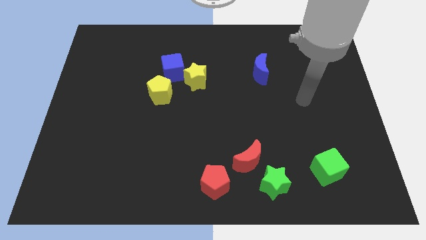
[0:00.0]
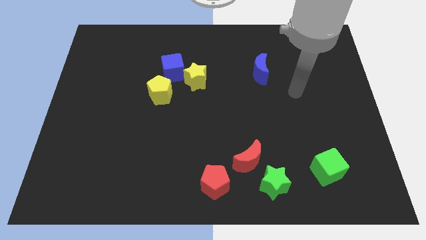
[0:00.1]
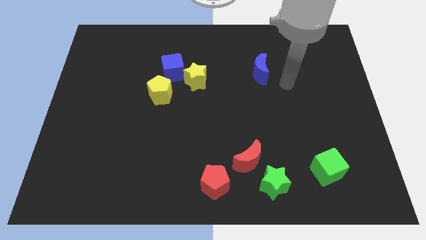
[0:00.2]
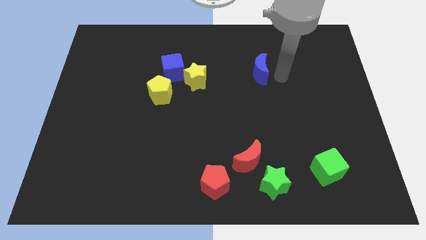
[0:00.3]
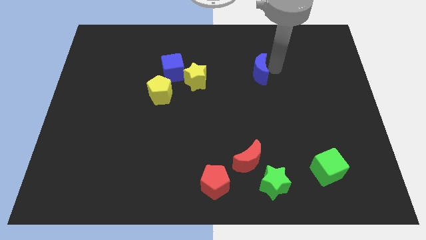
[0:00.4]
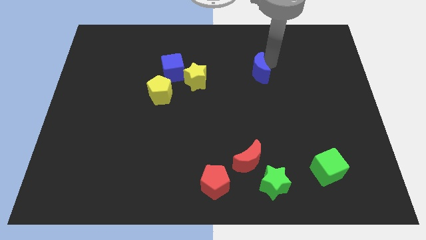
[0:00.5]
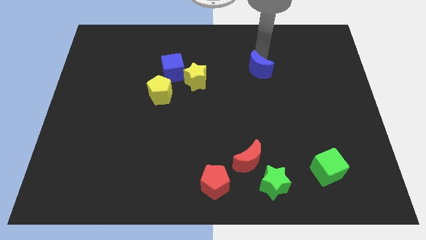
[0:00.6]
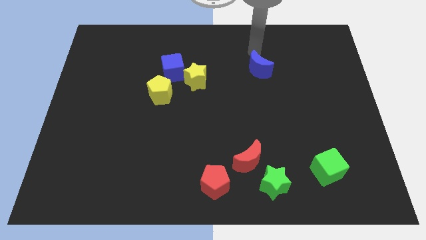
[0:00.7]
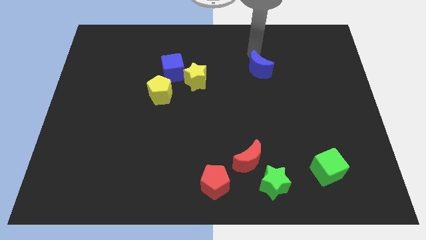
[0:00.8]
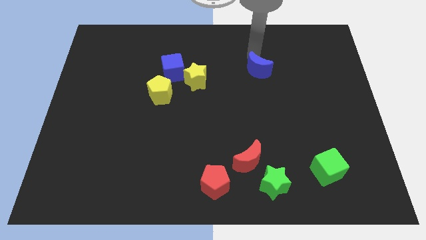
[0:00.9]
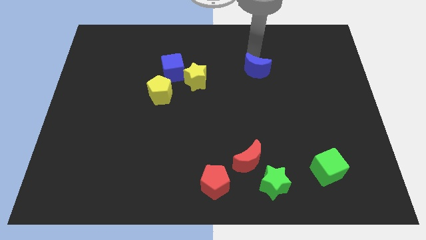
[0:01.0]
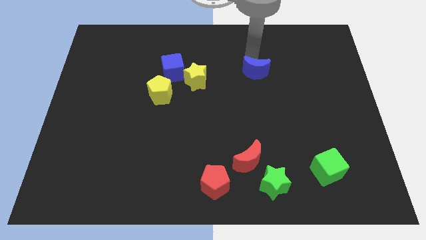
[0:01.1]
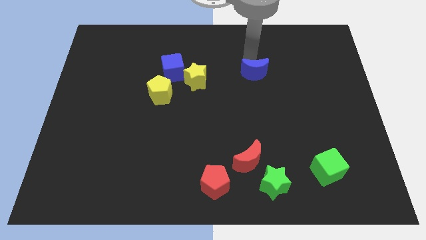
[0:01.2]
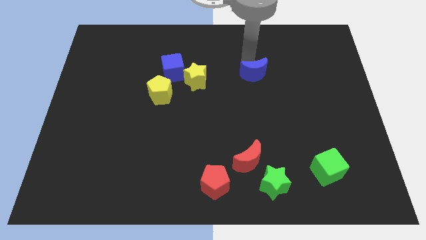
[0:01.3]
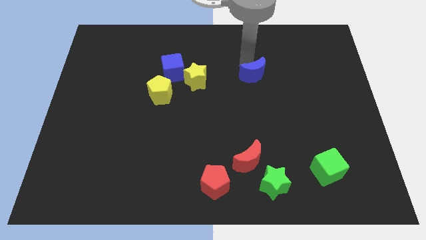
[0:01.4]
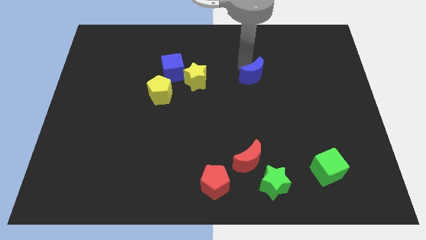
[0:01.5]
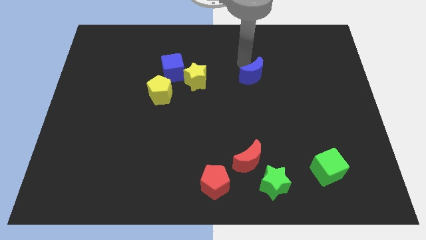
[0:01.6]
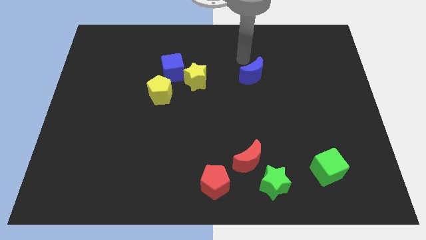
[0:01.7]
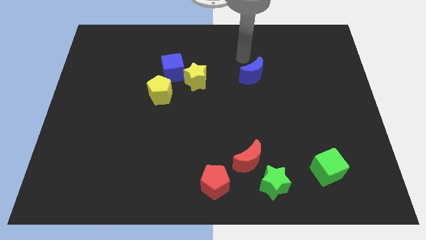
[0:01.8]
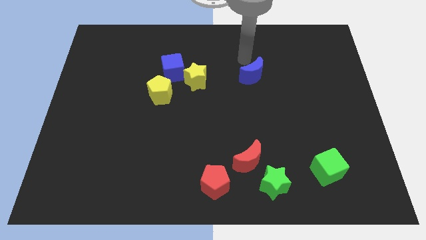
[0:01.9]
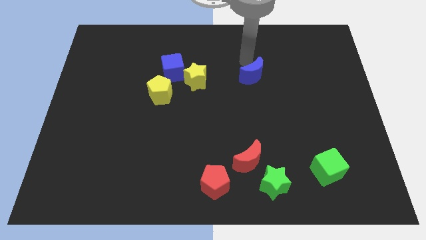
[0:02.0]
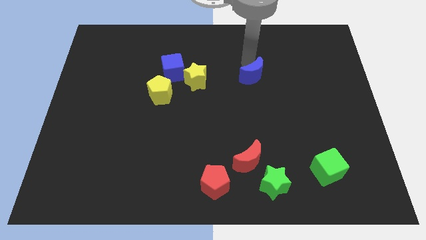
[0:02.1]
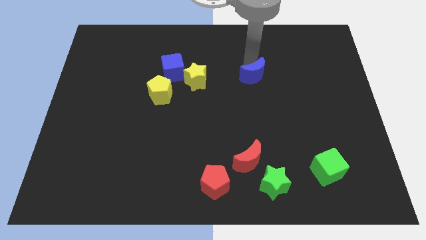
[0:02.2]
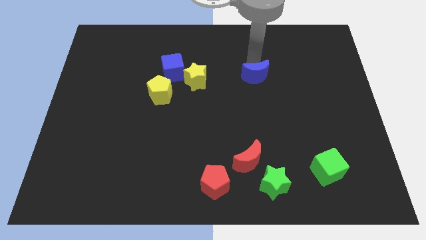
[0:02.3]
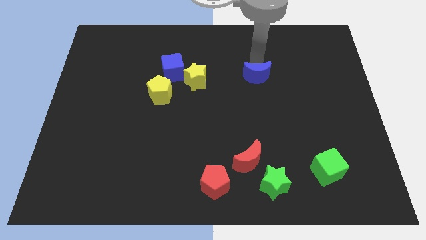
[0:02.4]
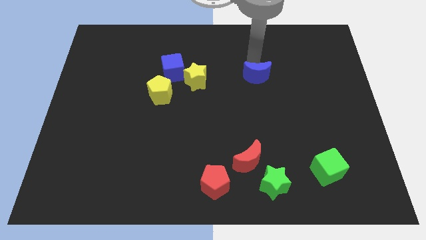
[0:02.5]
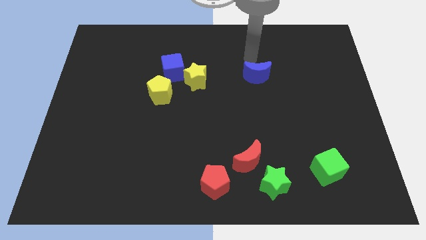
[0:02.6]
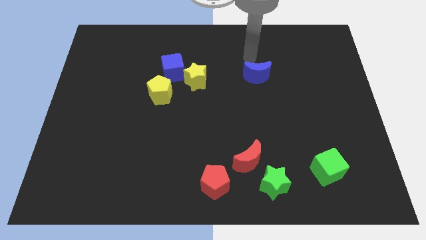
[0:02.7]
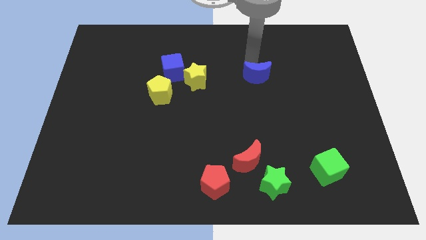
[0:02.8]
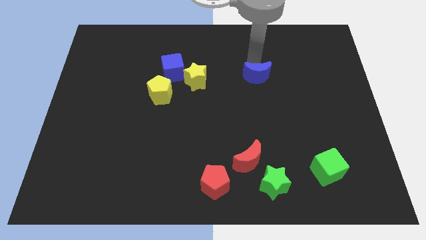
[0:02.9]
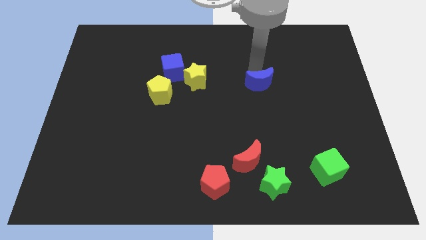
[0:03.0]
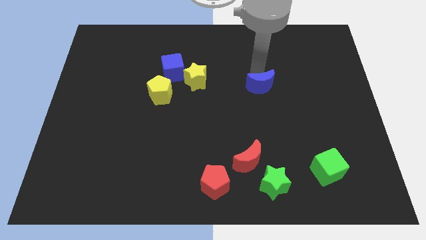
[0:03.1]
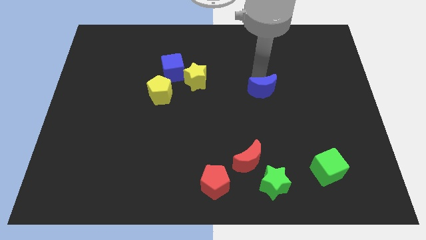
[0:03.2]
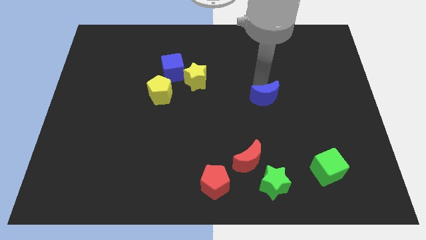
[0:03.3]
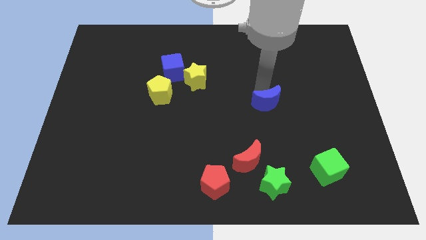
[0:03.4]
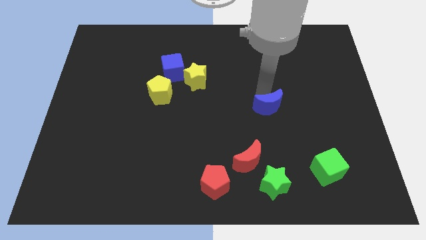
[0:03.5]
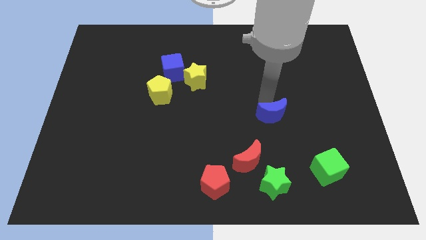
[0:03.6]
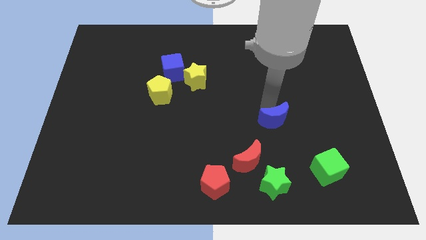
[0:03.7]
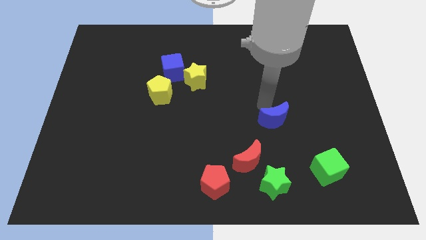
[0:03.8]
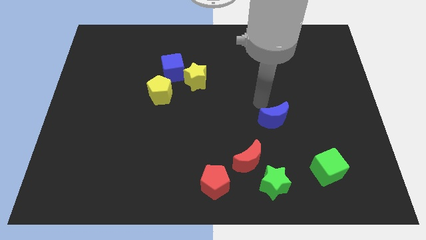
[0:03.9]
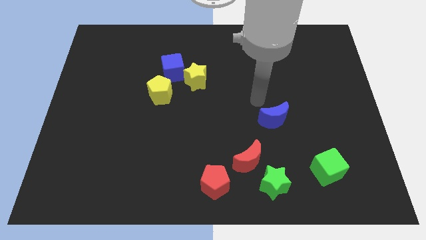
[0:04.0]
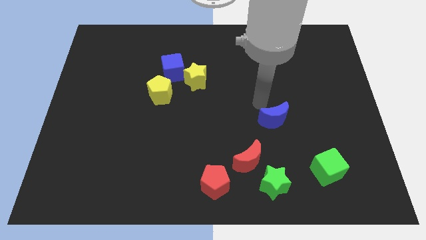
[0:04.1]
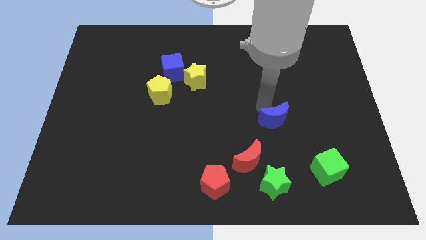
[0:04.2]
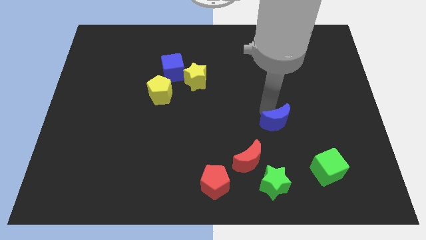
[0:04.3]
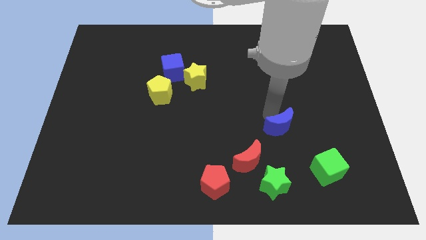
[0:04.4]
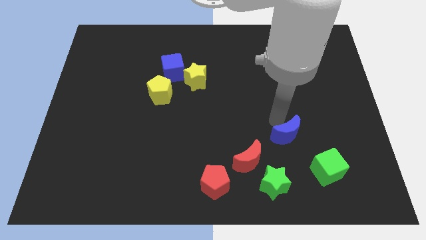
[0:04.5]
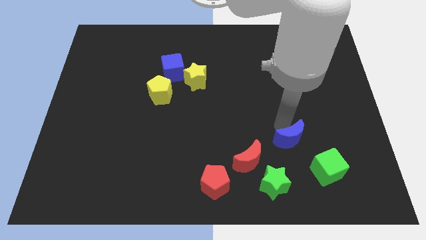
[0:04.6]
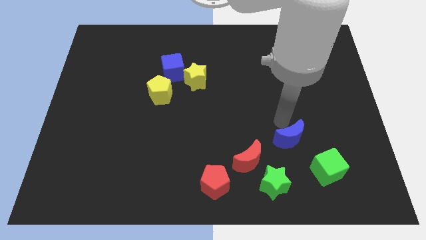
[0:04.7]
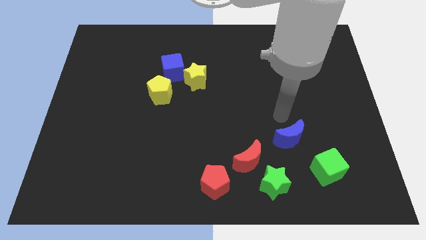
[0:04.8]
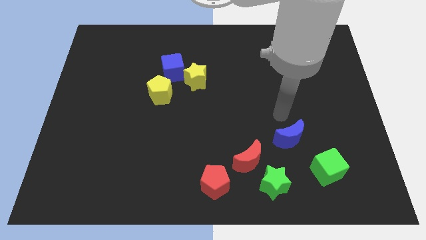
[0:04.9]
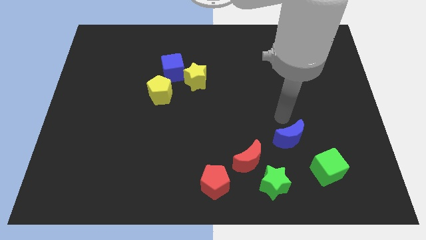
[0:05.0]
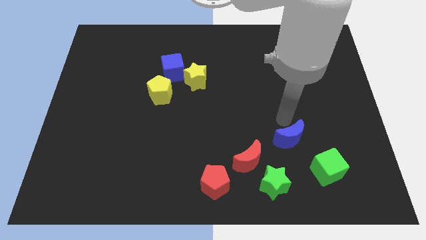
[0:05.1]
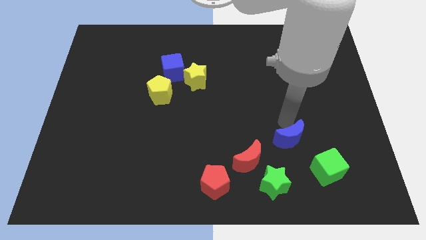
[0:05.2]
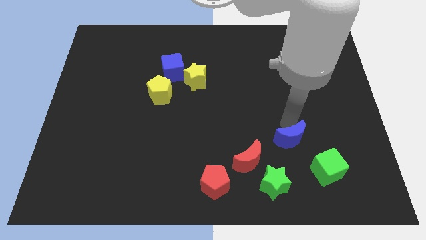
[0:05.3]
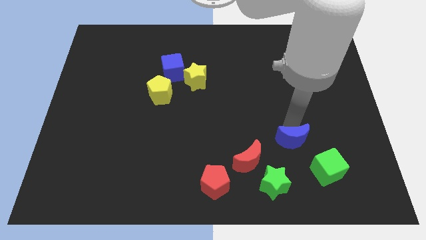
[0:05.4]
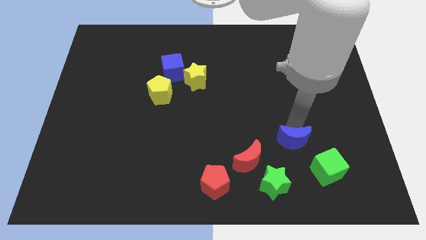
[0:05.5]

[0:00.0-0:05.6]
put the blue moon to the right side of the red moon

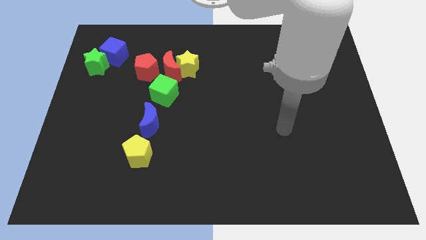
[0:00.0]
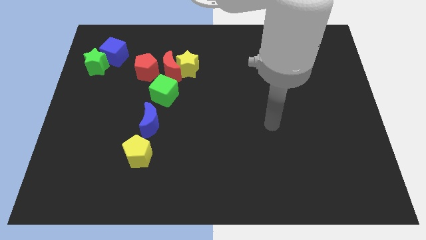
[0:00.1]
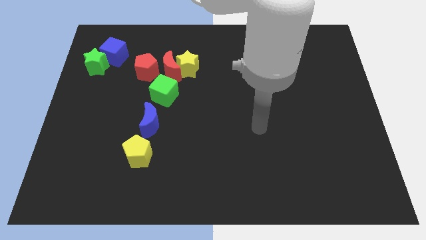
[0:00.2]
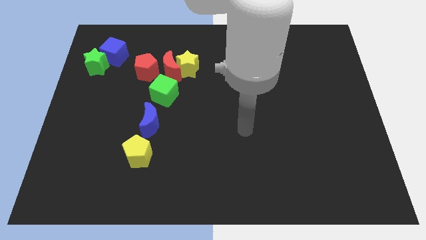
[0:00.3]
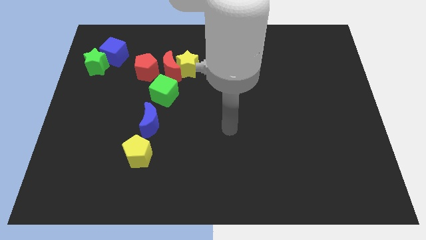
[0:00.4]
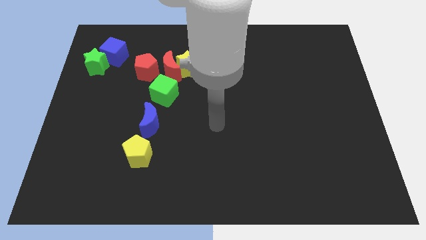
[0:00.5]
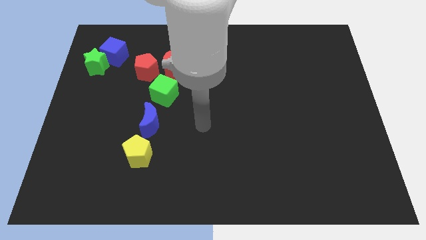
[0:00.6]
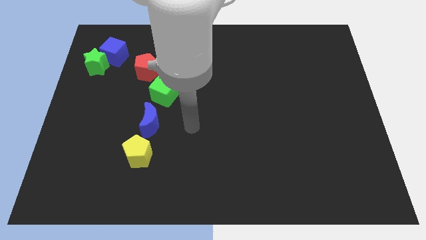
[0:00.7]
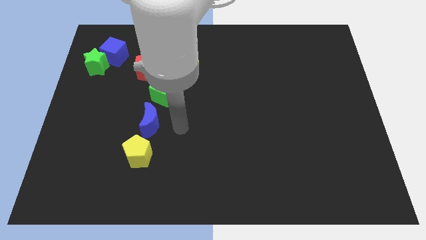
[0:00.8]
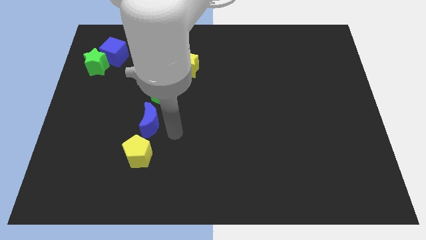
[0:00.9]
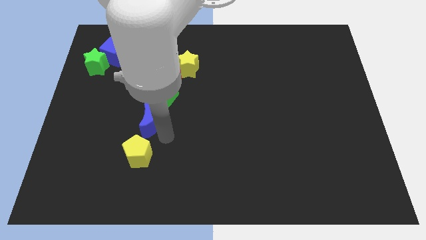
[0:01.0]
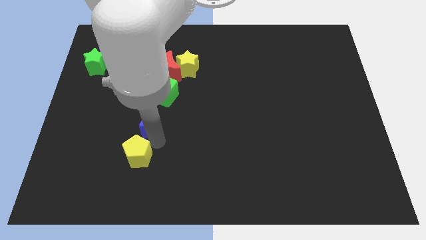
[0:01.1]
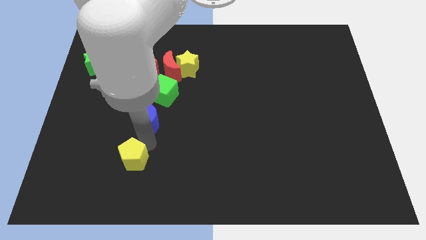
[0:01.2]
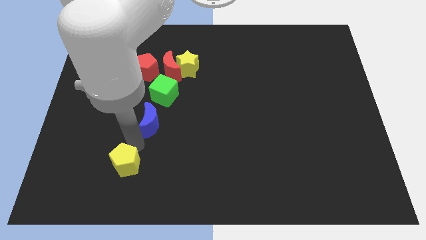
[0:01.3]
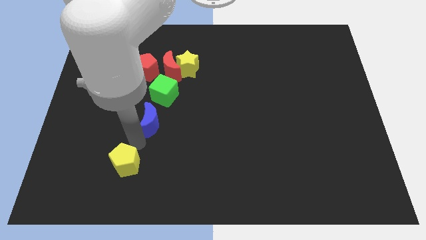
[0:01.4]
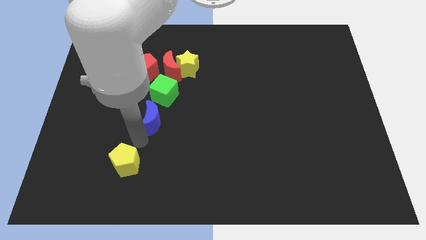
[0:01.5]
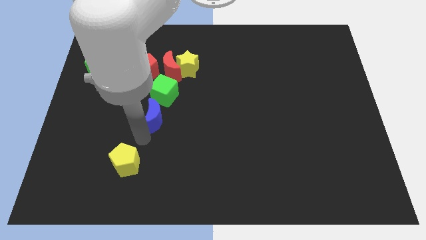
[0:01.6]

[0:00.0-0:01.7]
put the blue moon to the bottom of the red moon
